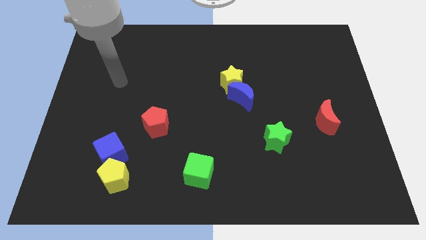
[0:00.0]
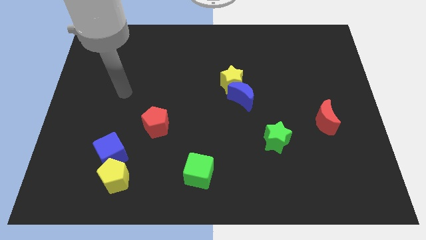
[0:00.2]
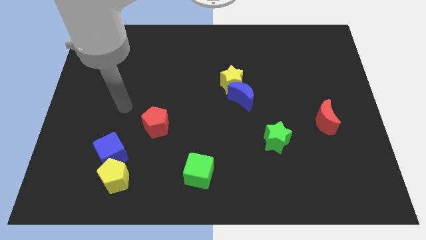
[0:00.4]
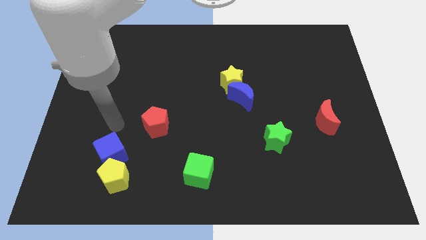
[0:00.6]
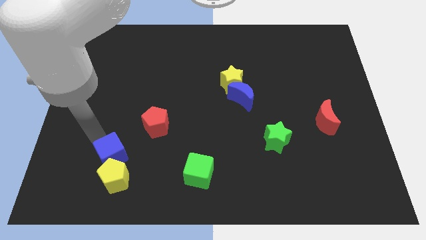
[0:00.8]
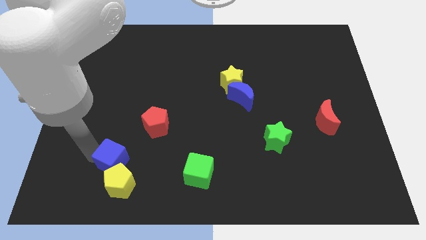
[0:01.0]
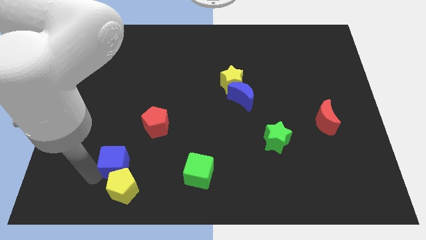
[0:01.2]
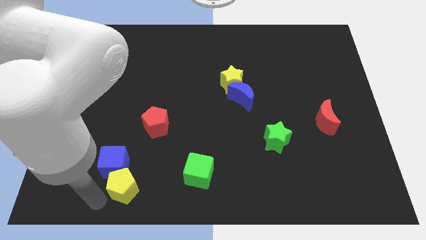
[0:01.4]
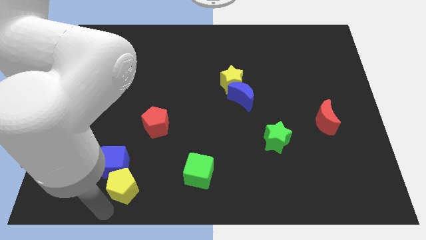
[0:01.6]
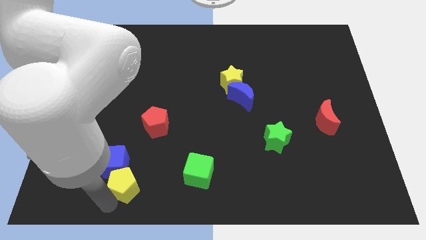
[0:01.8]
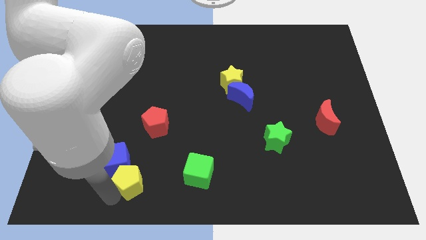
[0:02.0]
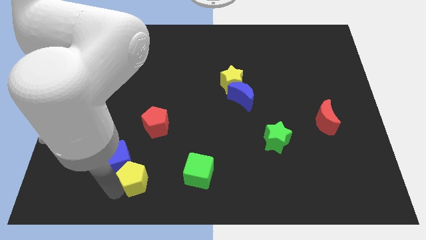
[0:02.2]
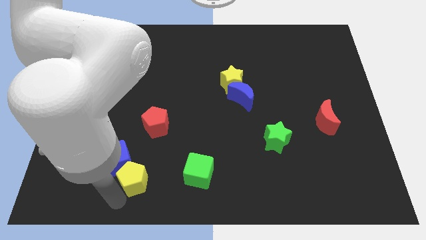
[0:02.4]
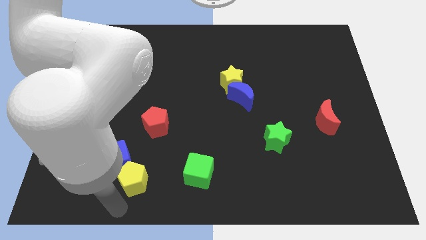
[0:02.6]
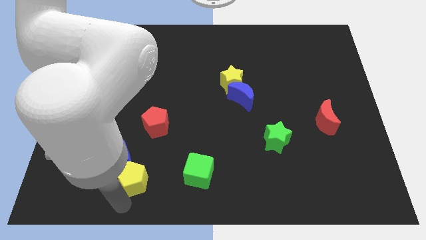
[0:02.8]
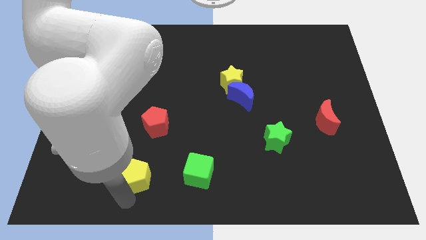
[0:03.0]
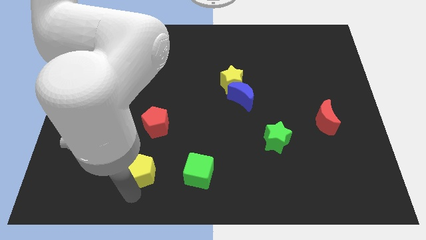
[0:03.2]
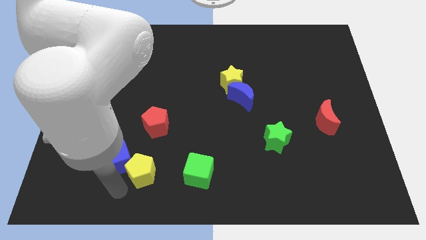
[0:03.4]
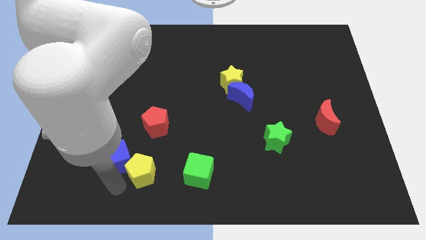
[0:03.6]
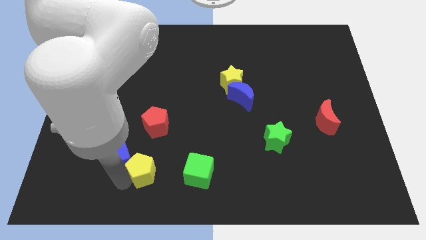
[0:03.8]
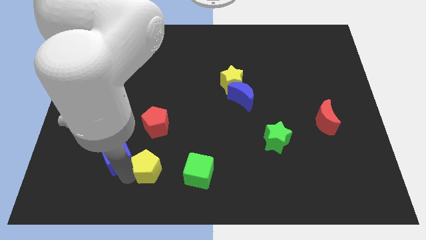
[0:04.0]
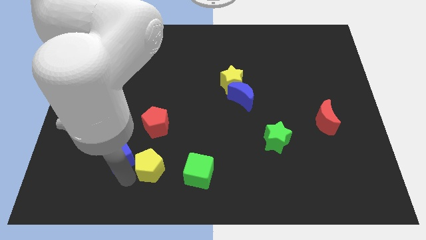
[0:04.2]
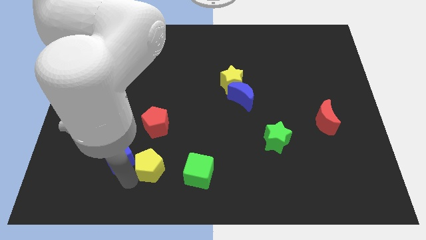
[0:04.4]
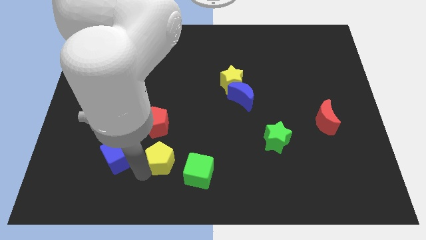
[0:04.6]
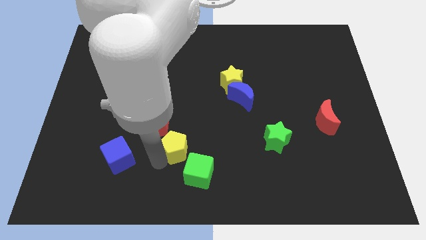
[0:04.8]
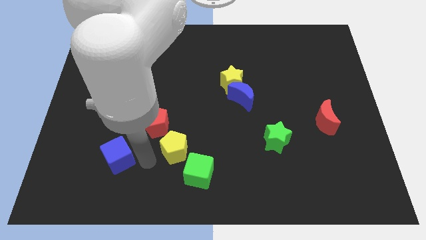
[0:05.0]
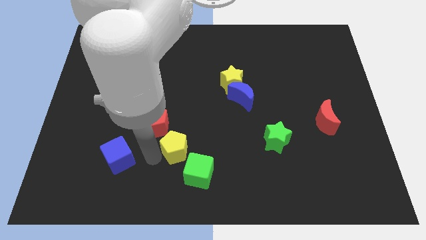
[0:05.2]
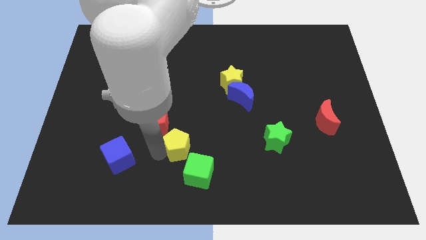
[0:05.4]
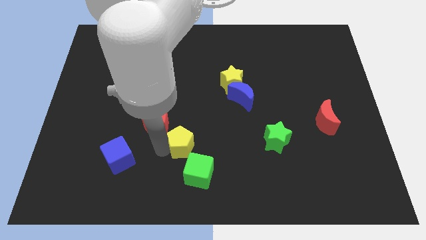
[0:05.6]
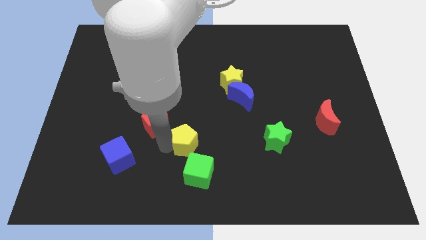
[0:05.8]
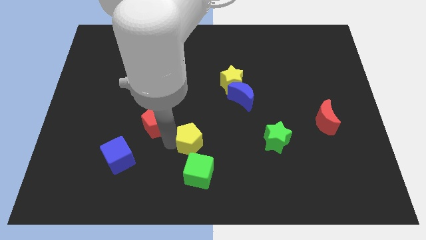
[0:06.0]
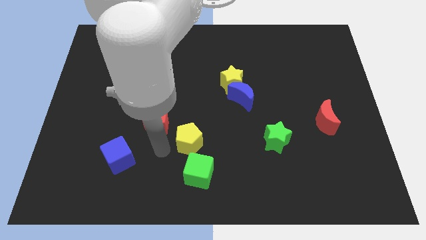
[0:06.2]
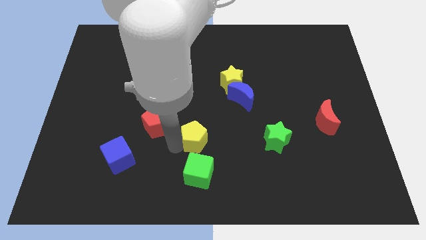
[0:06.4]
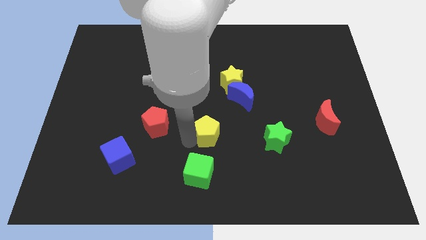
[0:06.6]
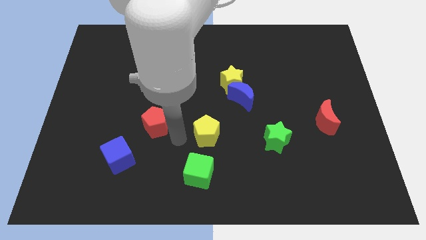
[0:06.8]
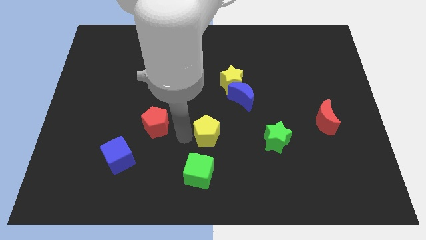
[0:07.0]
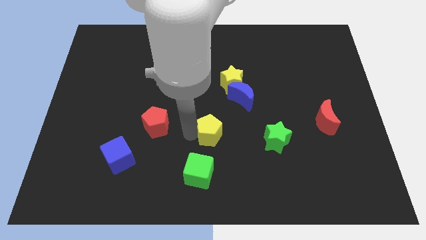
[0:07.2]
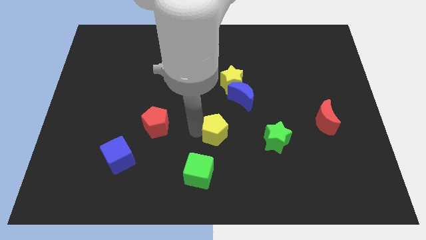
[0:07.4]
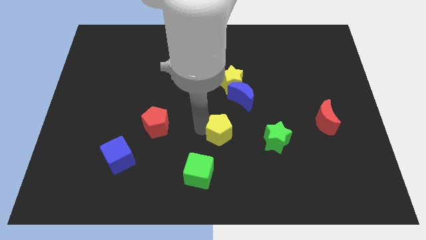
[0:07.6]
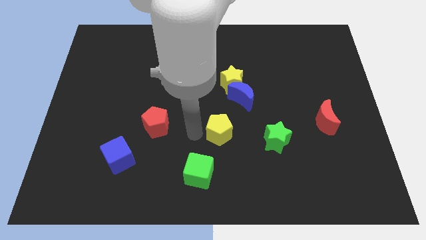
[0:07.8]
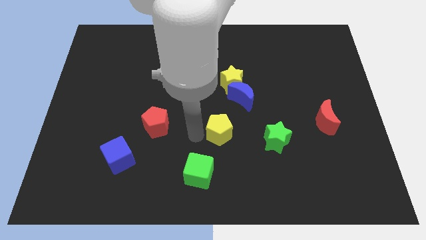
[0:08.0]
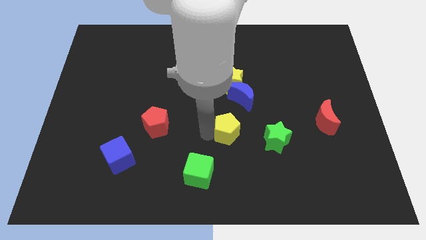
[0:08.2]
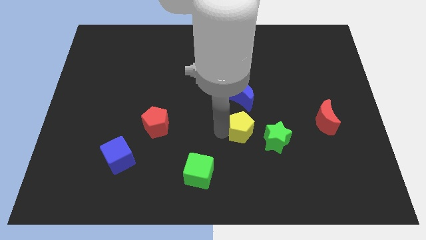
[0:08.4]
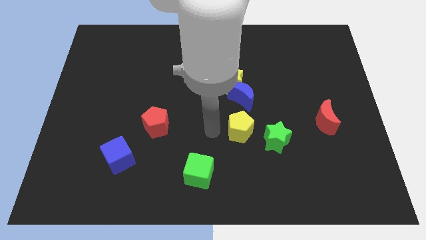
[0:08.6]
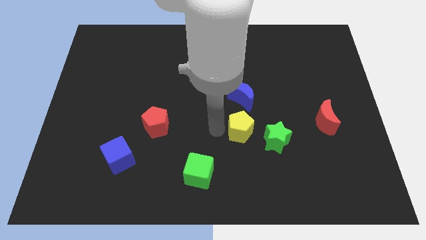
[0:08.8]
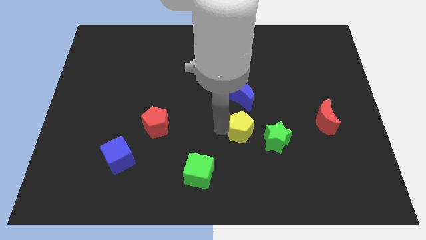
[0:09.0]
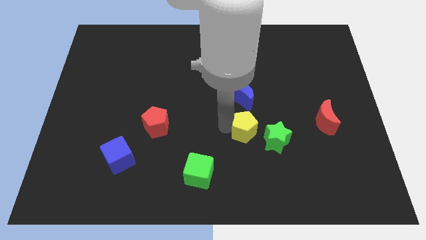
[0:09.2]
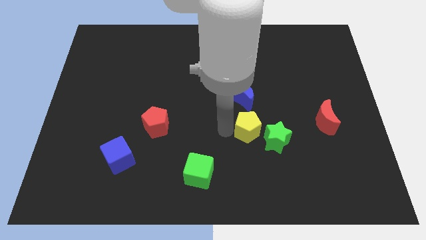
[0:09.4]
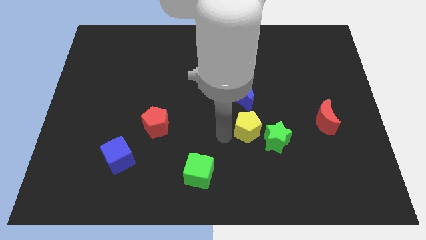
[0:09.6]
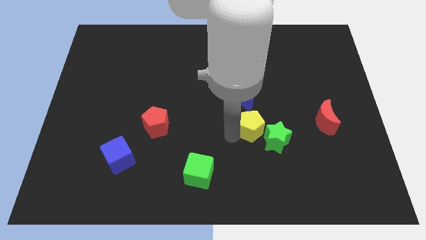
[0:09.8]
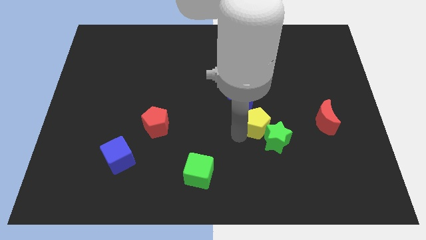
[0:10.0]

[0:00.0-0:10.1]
slide the yellow pentagon to the left side of the red moon

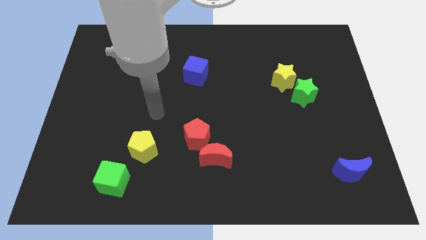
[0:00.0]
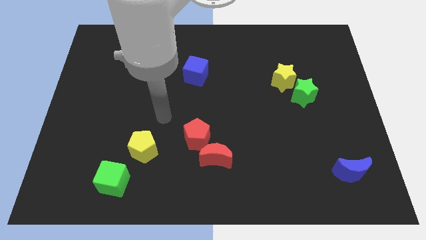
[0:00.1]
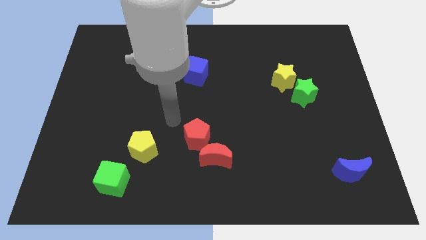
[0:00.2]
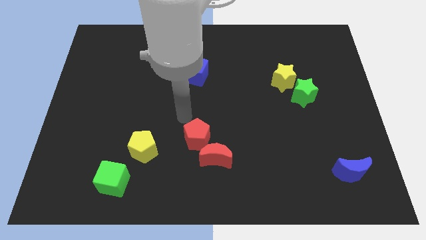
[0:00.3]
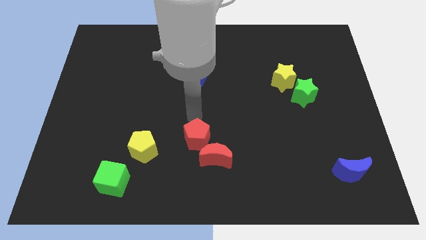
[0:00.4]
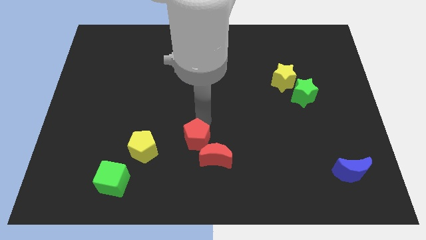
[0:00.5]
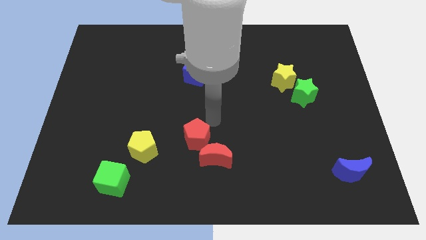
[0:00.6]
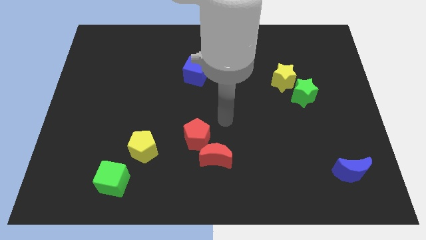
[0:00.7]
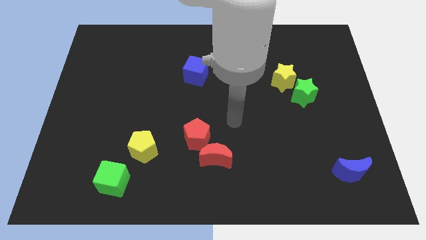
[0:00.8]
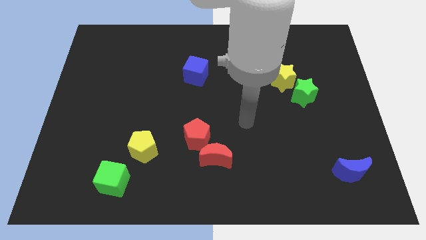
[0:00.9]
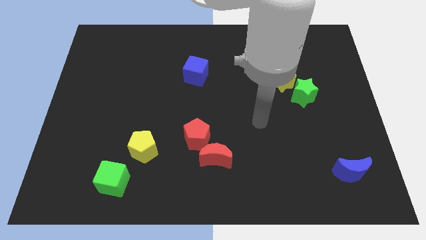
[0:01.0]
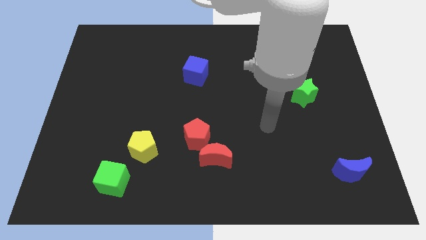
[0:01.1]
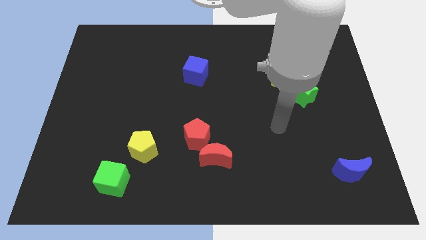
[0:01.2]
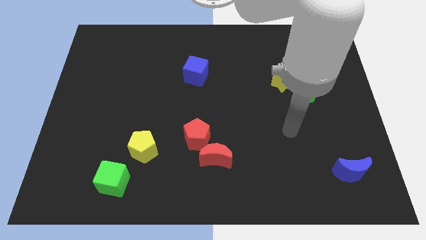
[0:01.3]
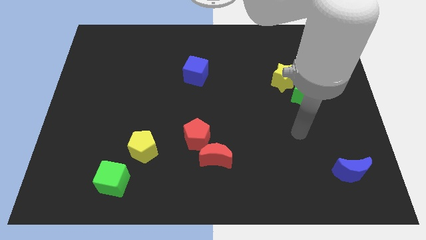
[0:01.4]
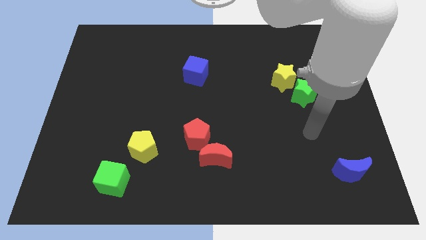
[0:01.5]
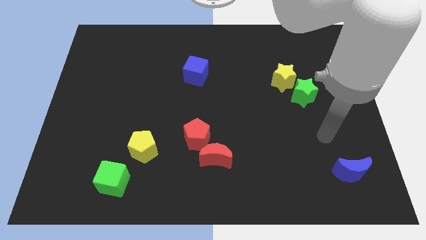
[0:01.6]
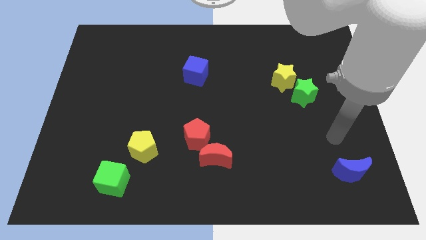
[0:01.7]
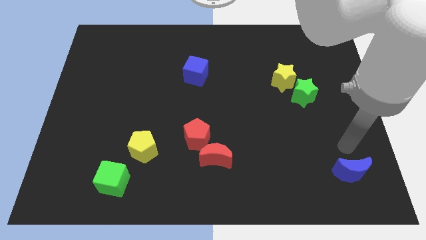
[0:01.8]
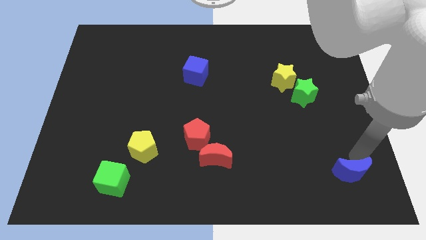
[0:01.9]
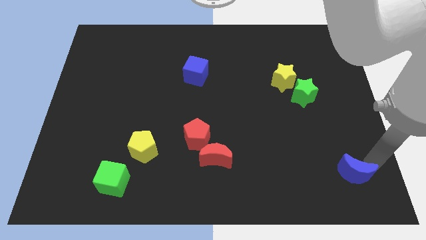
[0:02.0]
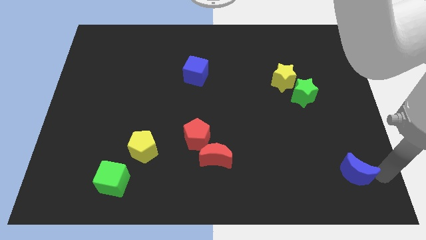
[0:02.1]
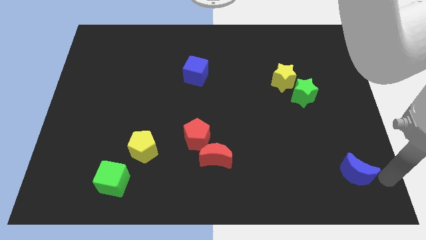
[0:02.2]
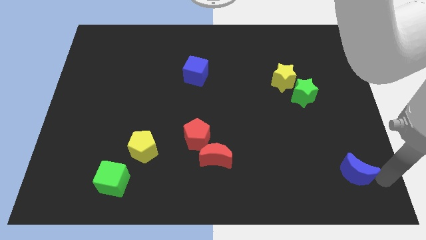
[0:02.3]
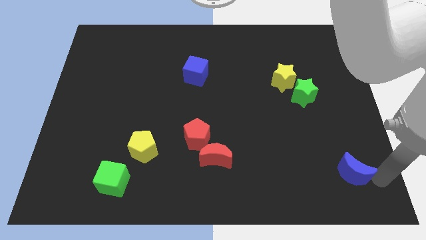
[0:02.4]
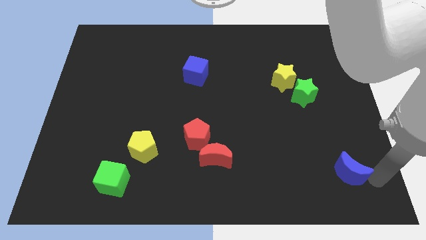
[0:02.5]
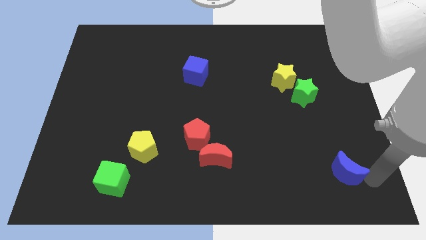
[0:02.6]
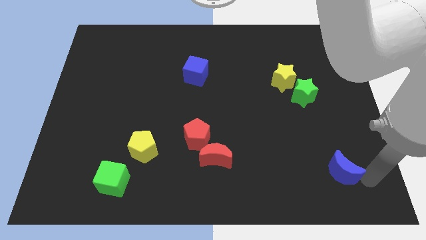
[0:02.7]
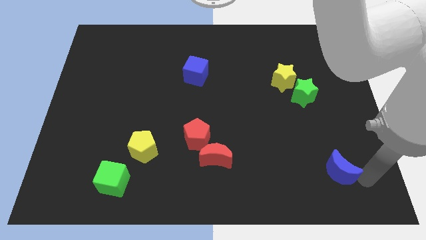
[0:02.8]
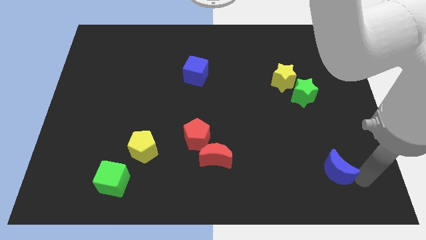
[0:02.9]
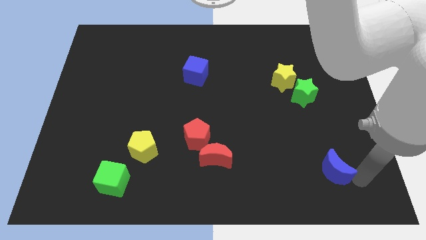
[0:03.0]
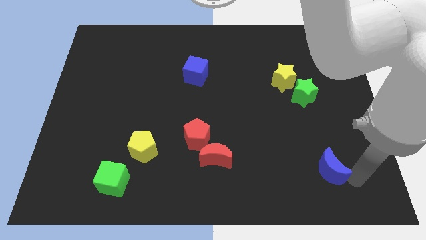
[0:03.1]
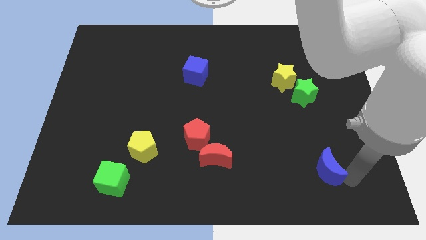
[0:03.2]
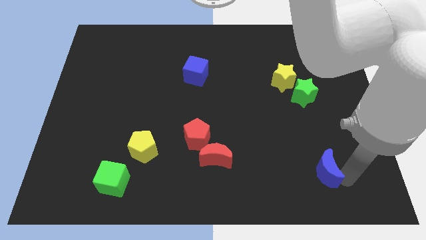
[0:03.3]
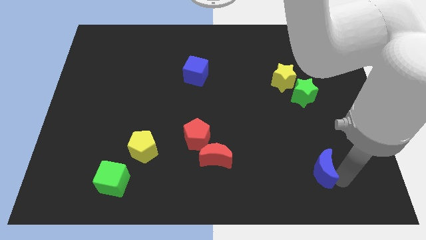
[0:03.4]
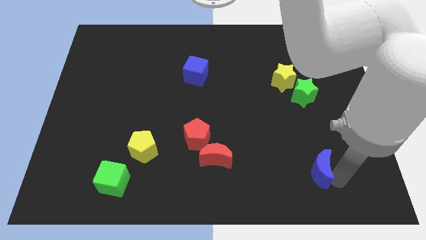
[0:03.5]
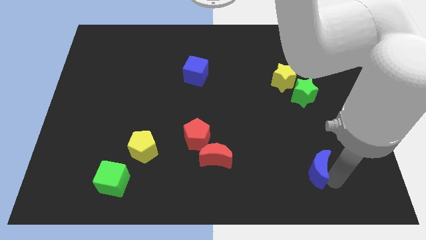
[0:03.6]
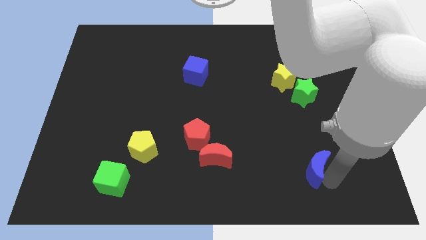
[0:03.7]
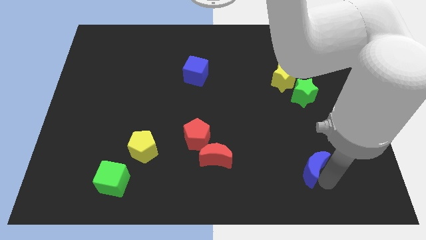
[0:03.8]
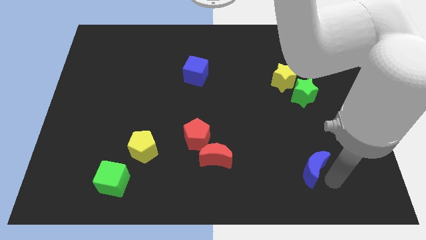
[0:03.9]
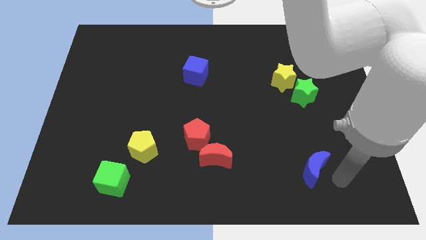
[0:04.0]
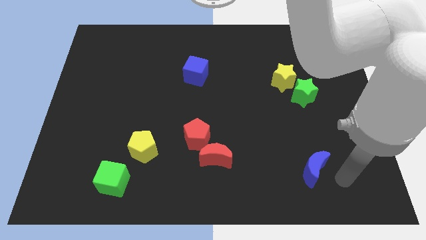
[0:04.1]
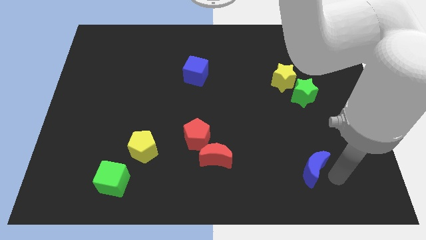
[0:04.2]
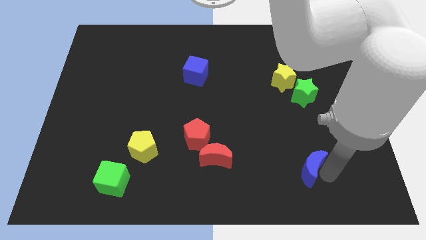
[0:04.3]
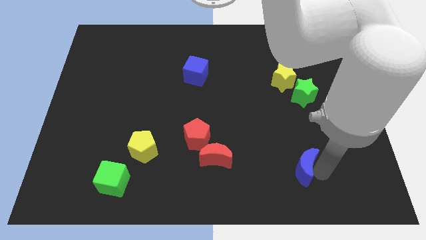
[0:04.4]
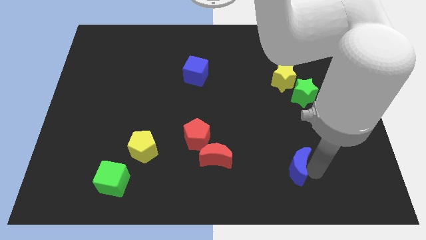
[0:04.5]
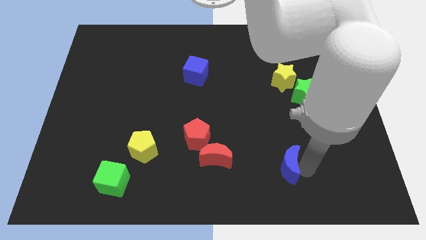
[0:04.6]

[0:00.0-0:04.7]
push the blue moon to the right of the red moon
